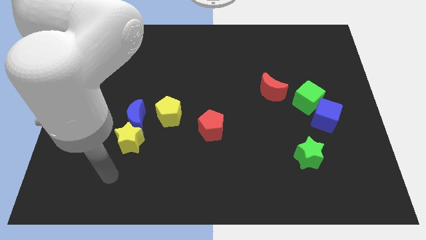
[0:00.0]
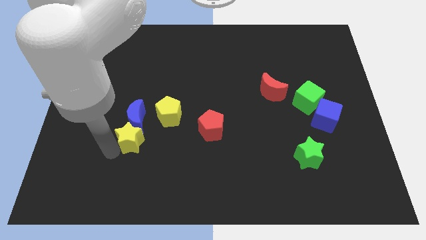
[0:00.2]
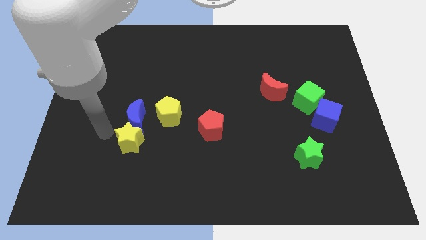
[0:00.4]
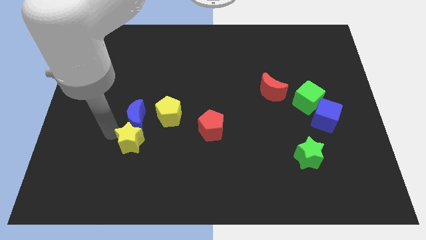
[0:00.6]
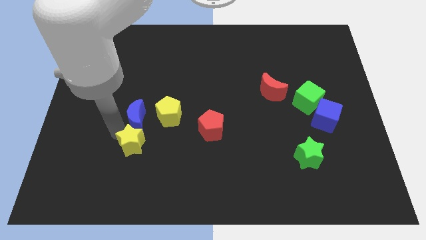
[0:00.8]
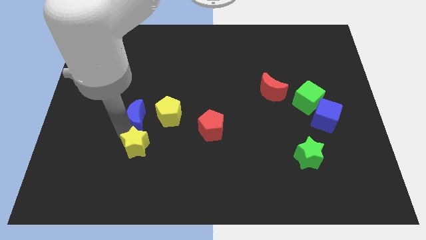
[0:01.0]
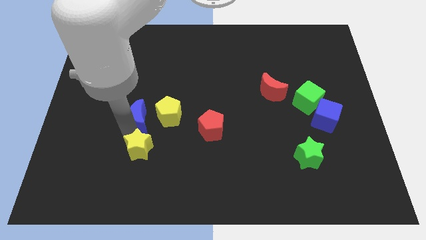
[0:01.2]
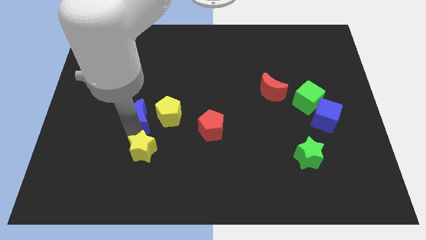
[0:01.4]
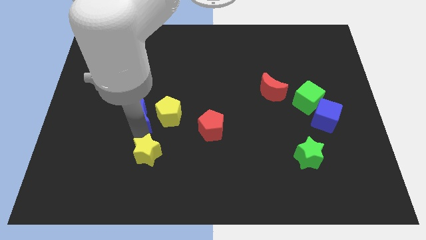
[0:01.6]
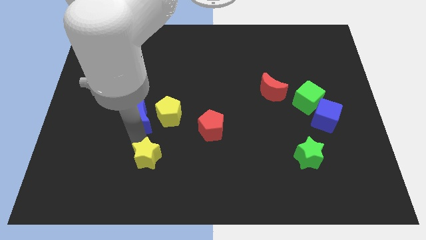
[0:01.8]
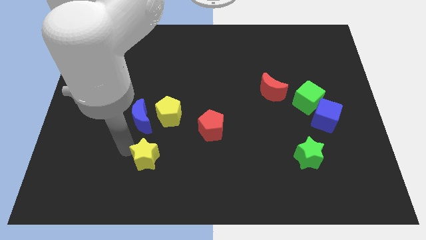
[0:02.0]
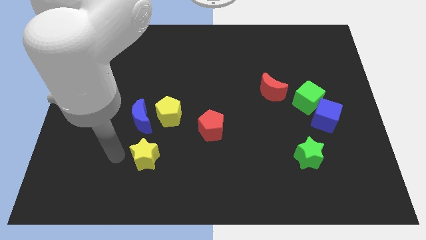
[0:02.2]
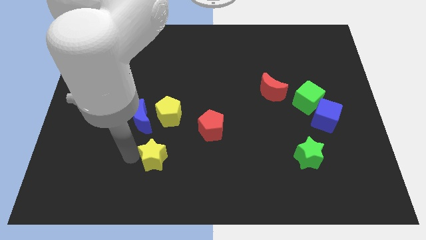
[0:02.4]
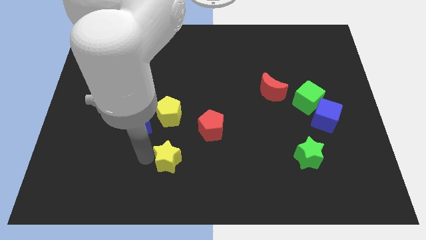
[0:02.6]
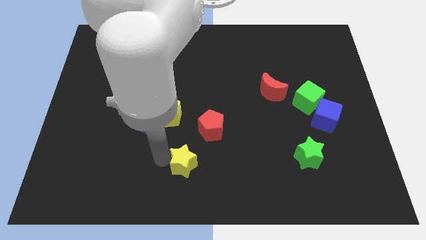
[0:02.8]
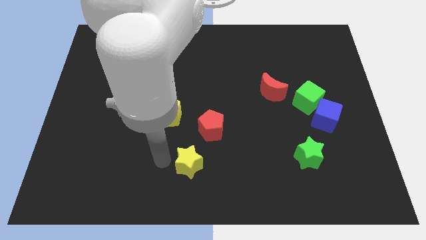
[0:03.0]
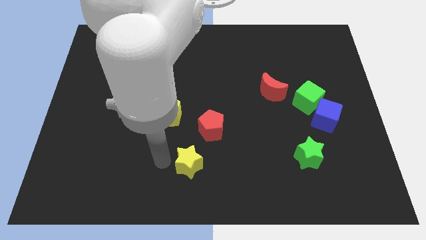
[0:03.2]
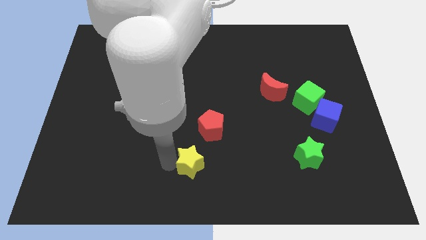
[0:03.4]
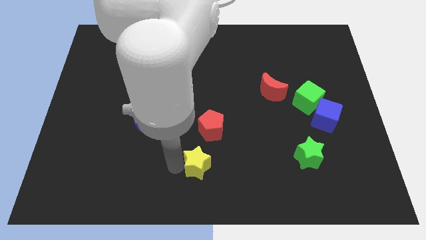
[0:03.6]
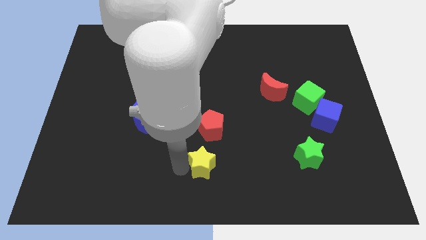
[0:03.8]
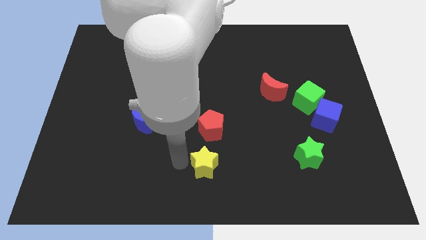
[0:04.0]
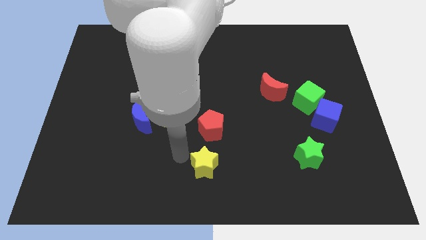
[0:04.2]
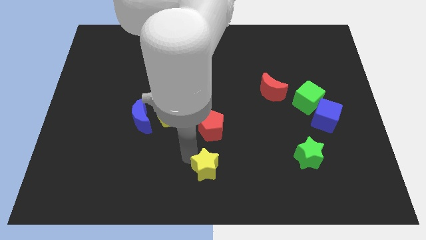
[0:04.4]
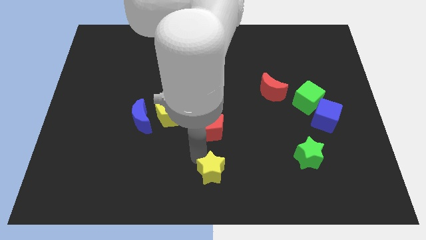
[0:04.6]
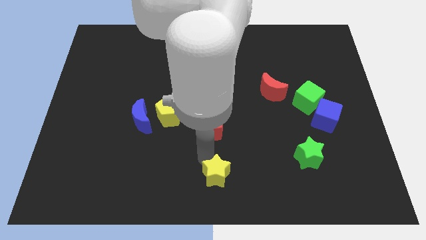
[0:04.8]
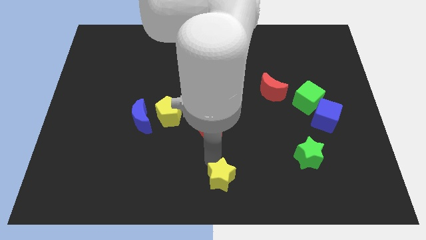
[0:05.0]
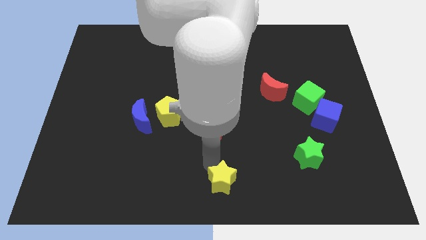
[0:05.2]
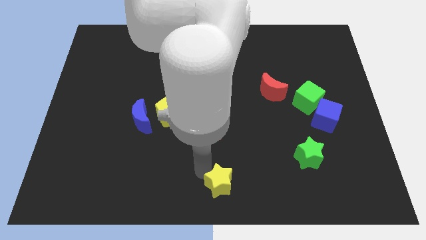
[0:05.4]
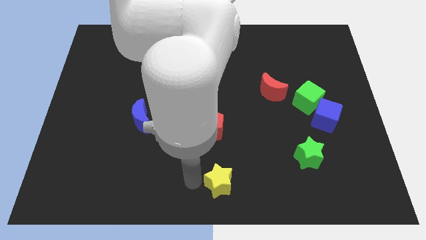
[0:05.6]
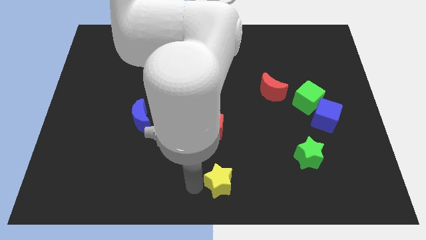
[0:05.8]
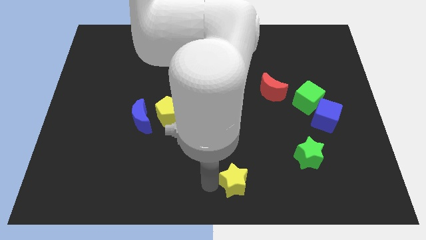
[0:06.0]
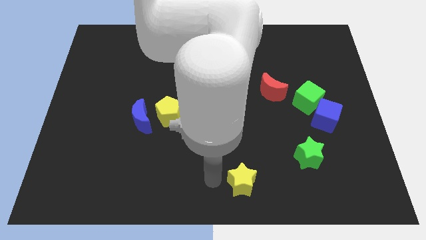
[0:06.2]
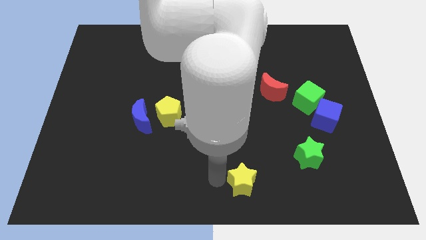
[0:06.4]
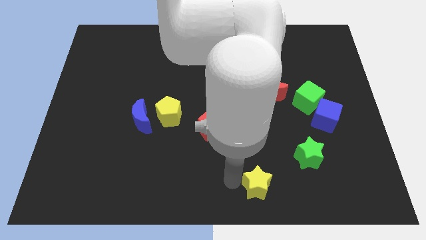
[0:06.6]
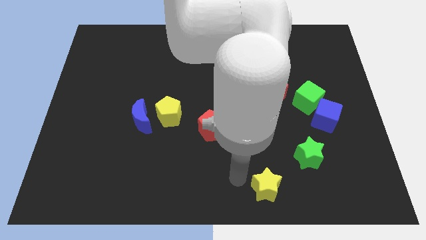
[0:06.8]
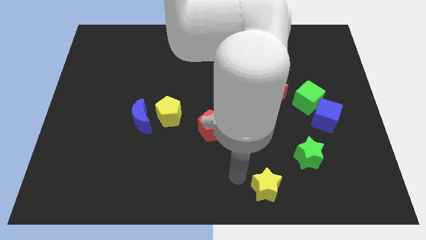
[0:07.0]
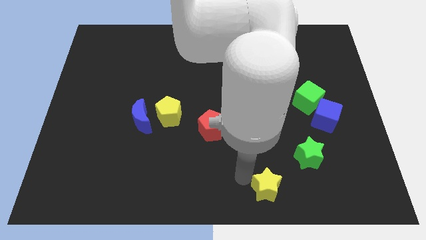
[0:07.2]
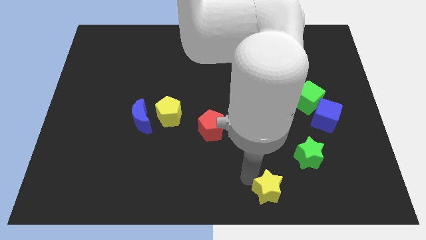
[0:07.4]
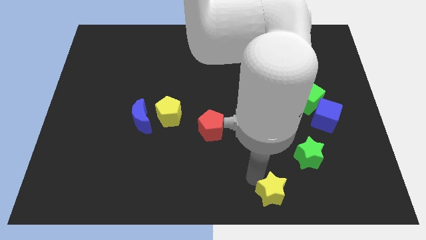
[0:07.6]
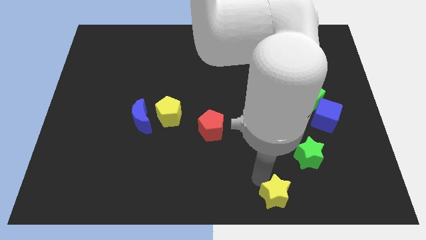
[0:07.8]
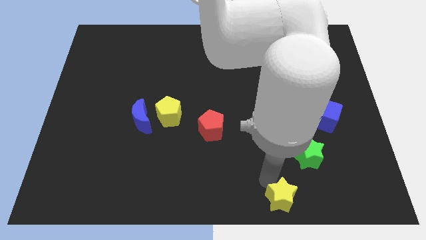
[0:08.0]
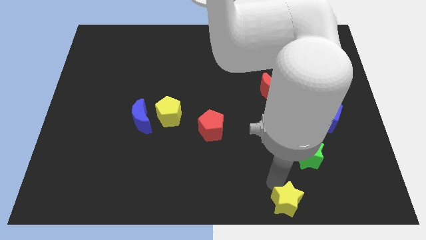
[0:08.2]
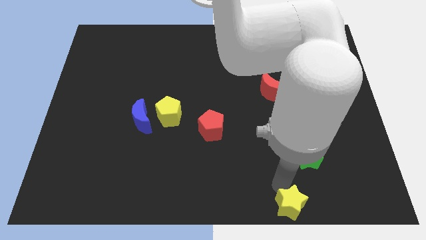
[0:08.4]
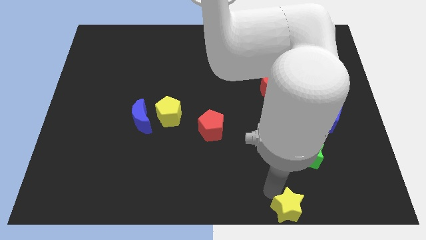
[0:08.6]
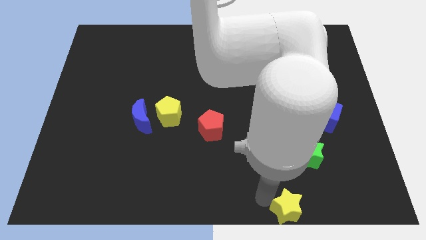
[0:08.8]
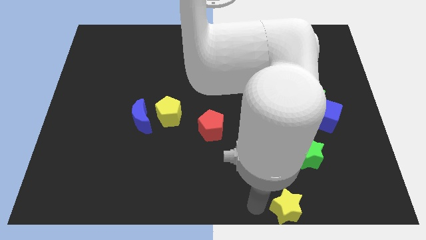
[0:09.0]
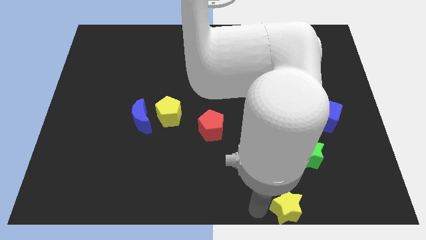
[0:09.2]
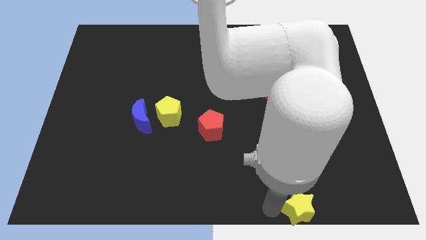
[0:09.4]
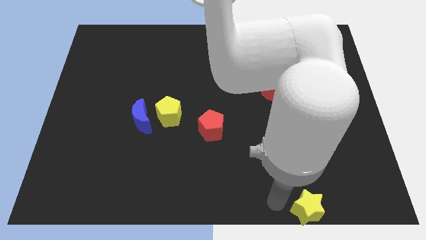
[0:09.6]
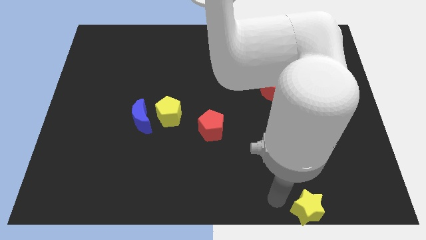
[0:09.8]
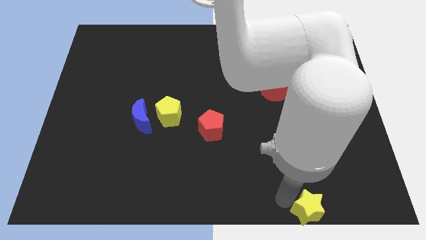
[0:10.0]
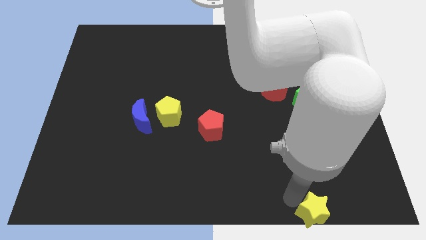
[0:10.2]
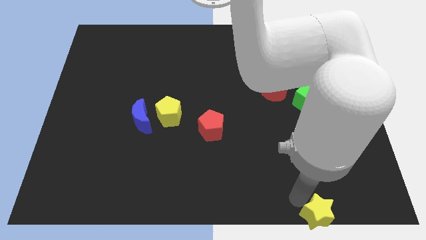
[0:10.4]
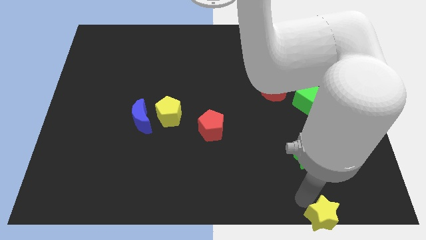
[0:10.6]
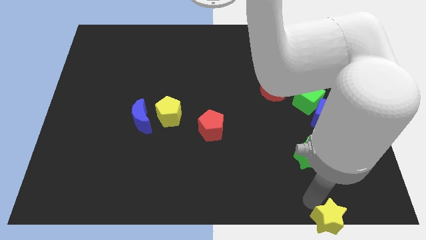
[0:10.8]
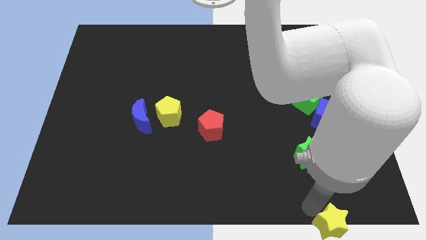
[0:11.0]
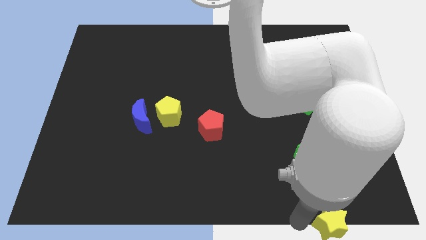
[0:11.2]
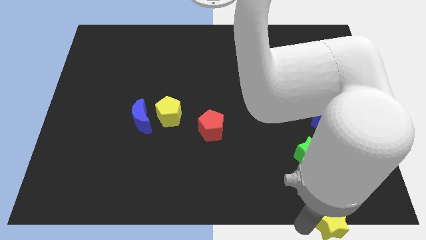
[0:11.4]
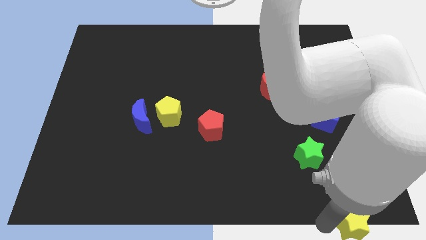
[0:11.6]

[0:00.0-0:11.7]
move the yellow star to the bottom right of the board
